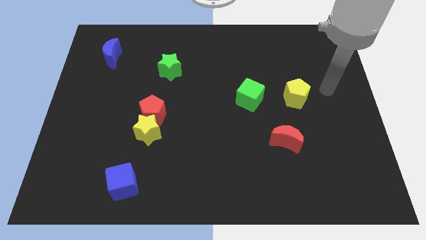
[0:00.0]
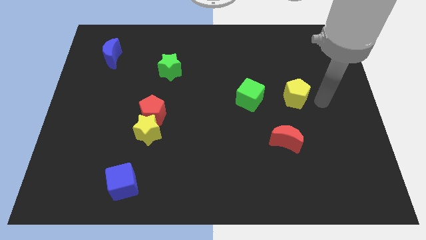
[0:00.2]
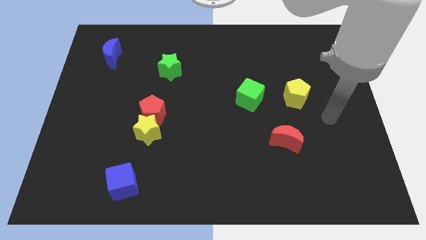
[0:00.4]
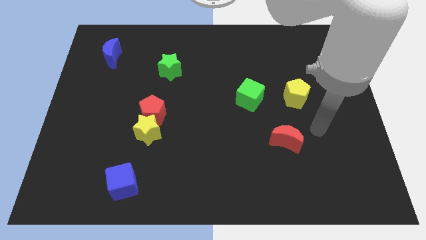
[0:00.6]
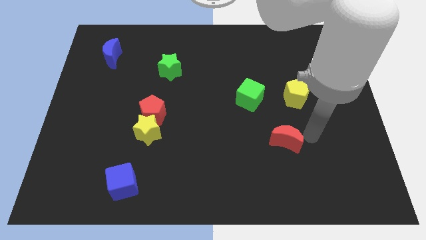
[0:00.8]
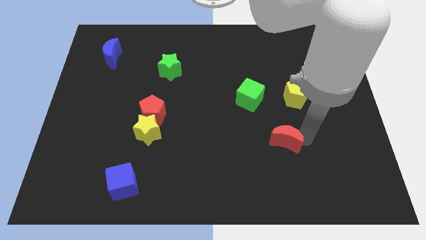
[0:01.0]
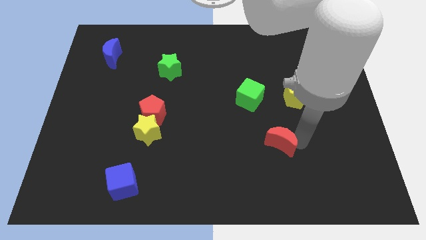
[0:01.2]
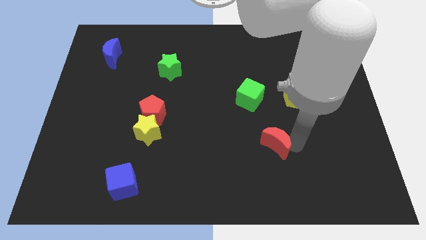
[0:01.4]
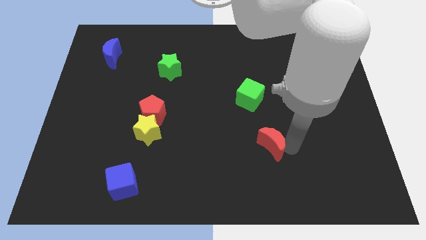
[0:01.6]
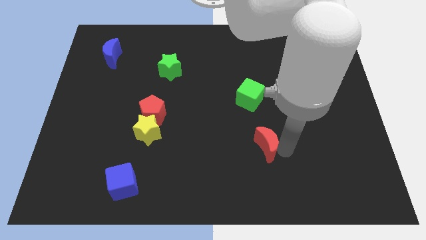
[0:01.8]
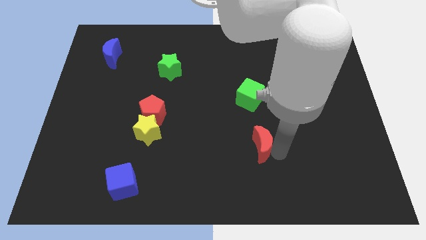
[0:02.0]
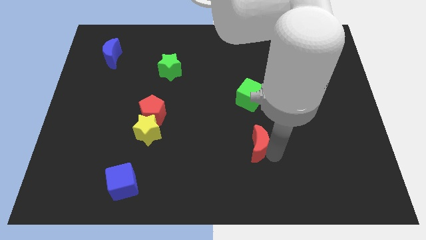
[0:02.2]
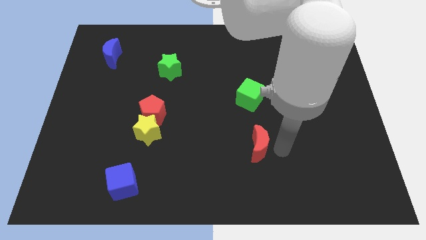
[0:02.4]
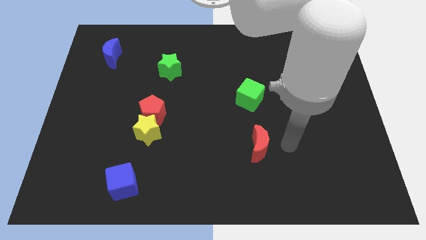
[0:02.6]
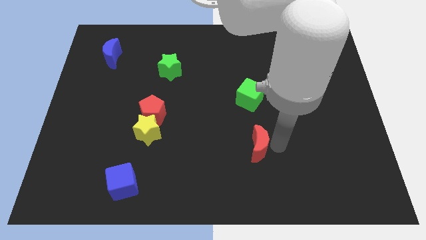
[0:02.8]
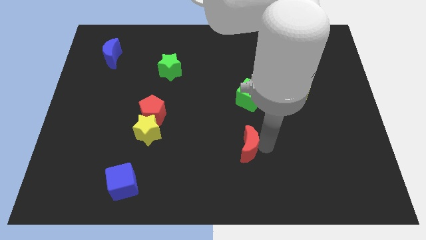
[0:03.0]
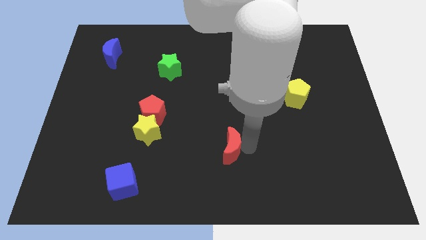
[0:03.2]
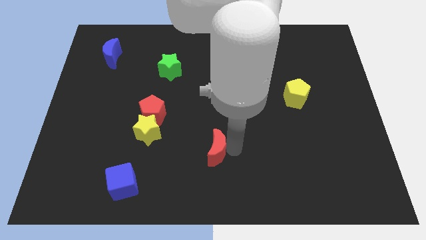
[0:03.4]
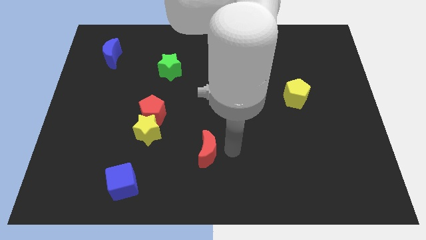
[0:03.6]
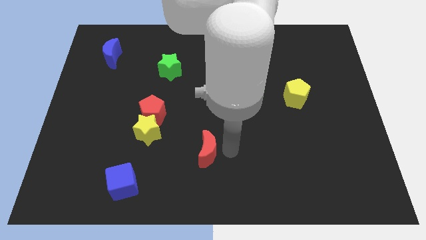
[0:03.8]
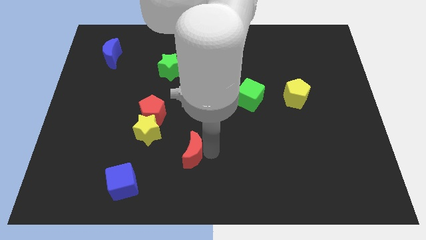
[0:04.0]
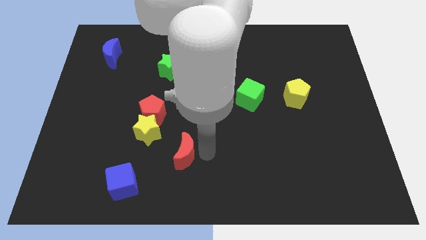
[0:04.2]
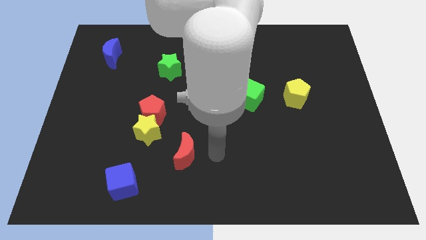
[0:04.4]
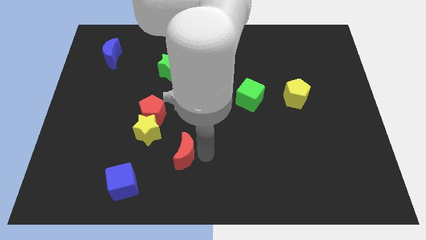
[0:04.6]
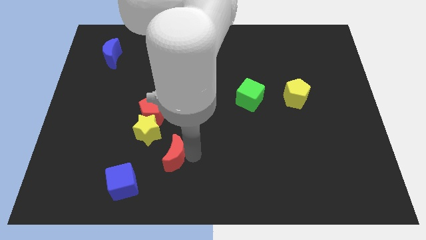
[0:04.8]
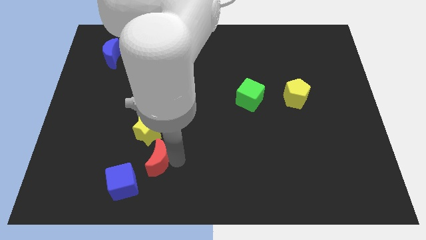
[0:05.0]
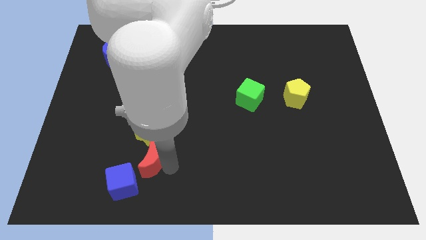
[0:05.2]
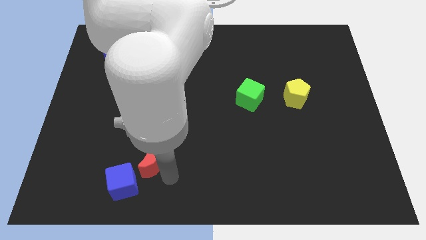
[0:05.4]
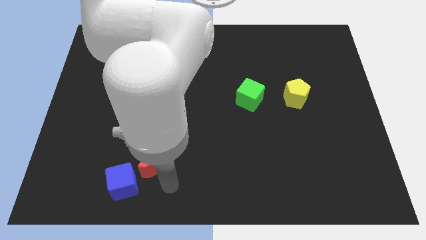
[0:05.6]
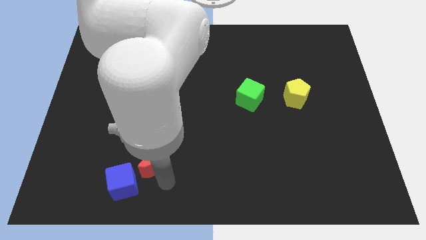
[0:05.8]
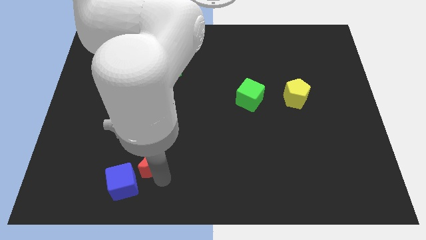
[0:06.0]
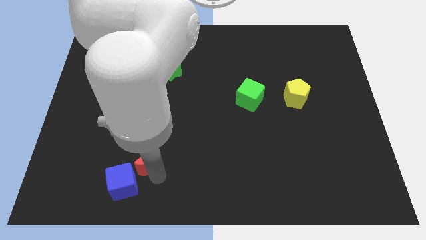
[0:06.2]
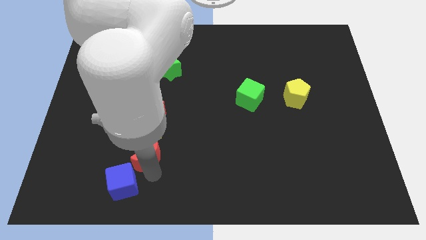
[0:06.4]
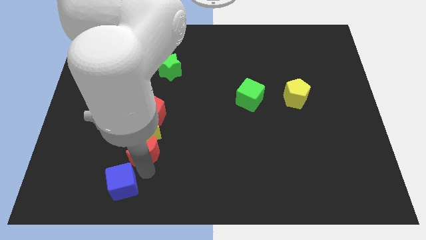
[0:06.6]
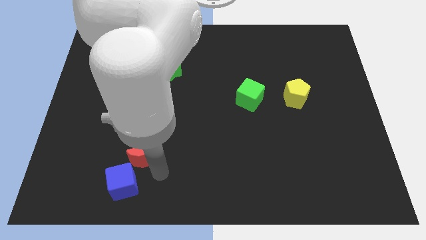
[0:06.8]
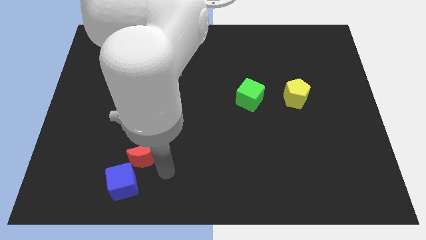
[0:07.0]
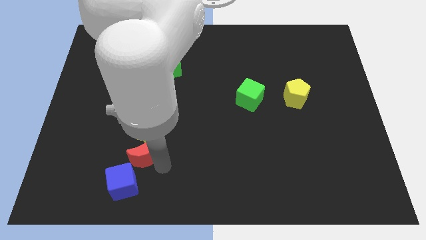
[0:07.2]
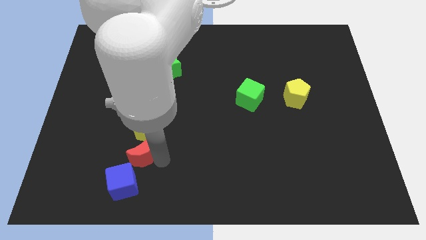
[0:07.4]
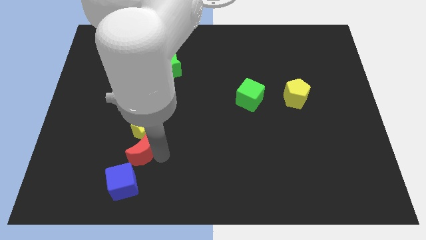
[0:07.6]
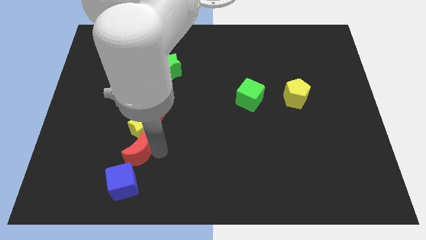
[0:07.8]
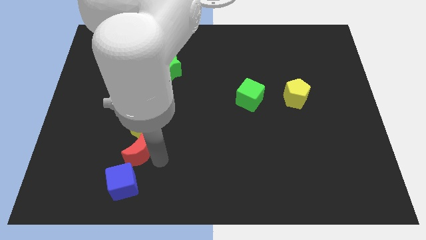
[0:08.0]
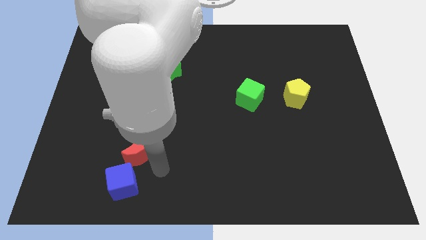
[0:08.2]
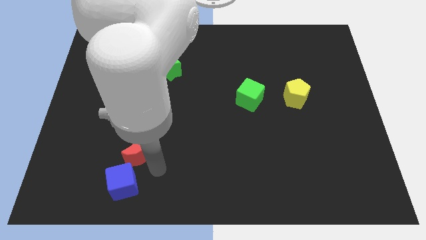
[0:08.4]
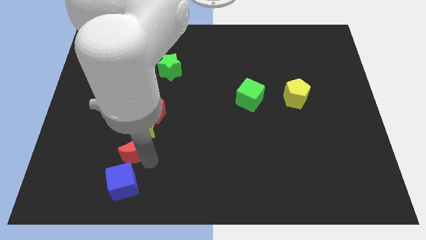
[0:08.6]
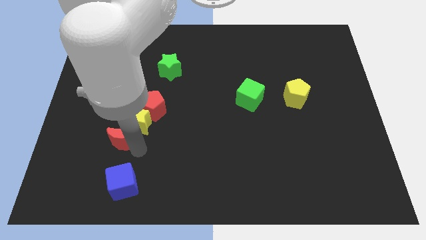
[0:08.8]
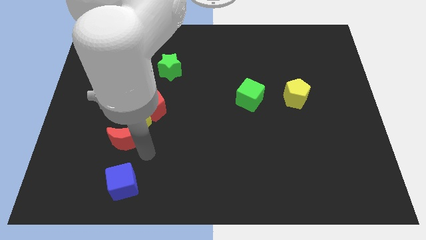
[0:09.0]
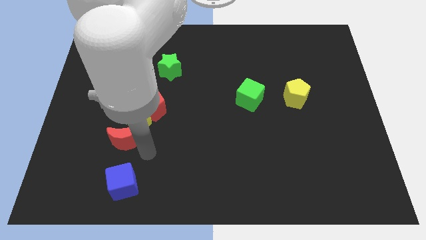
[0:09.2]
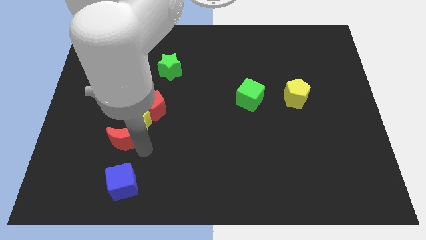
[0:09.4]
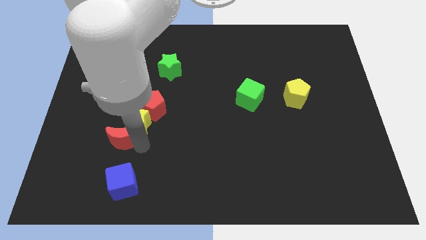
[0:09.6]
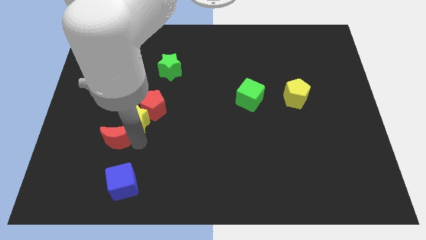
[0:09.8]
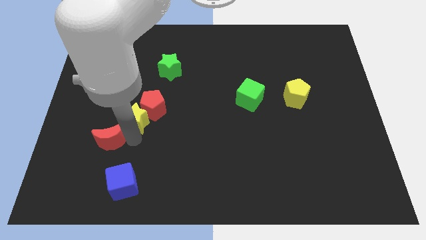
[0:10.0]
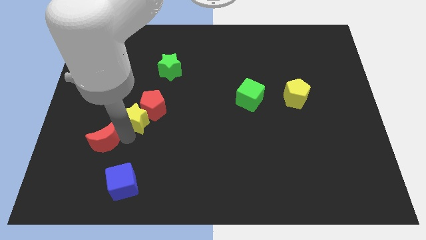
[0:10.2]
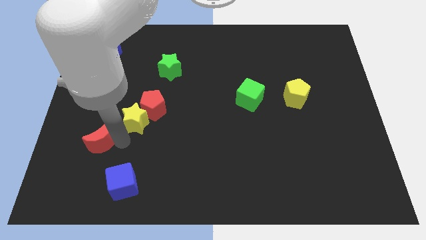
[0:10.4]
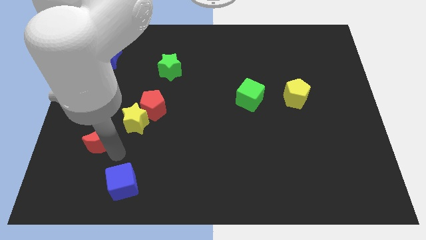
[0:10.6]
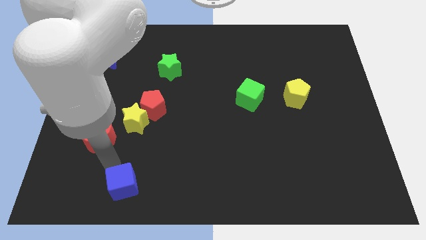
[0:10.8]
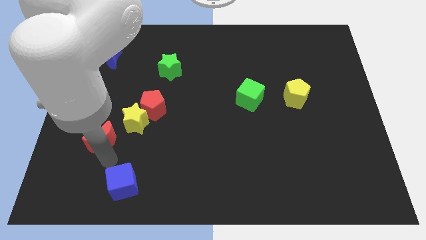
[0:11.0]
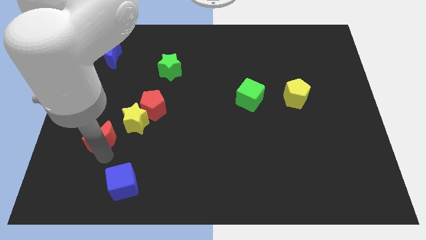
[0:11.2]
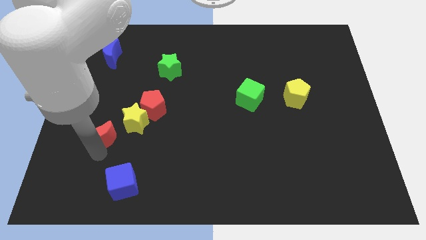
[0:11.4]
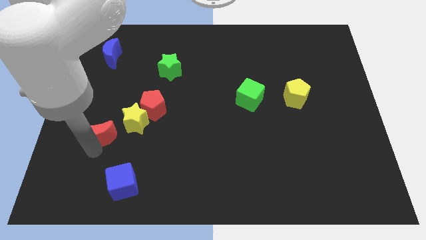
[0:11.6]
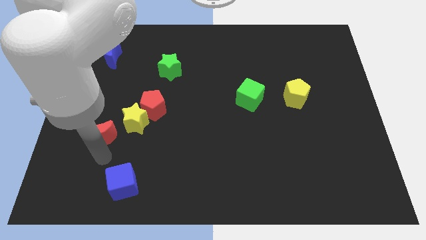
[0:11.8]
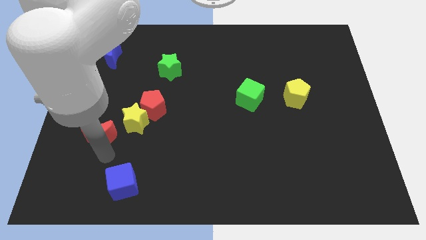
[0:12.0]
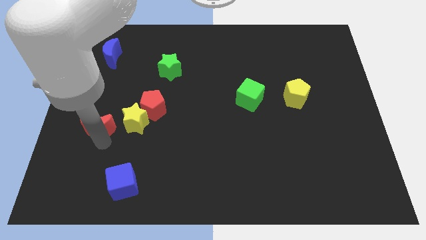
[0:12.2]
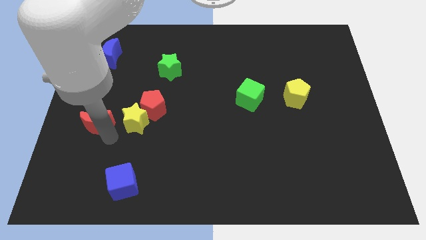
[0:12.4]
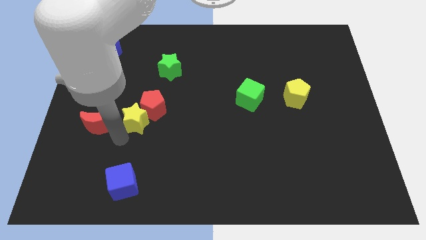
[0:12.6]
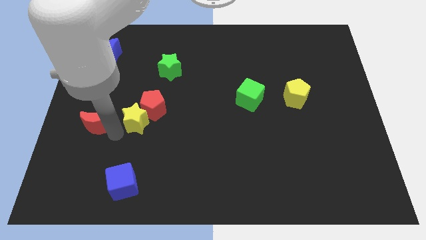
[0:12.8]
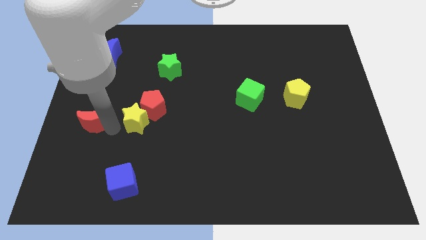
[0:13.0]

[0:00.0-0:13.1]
move the red moon to the left side
